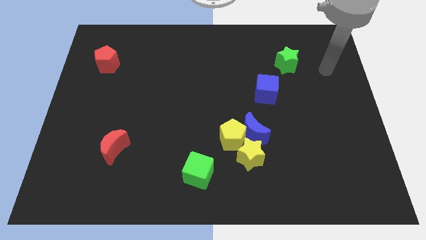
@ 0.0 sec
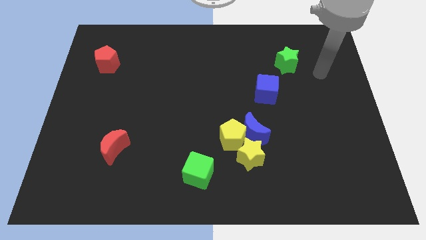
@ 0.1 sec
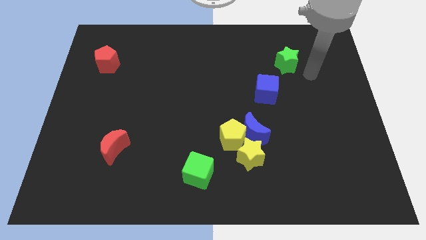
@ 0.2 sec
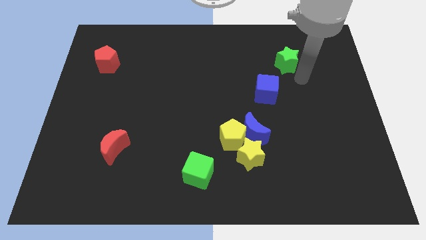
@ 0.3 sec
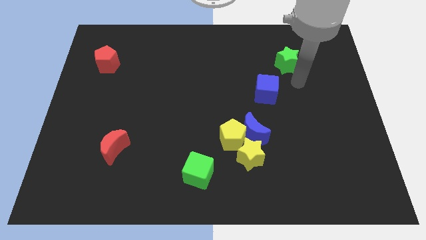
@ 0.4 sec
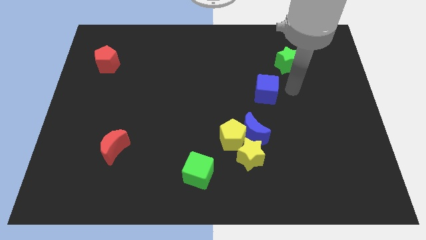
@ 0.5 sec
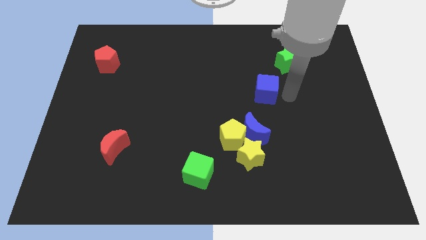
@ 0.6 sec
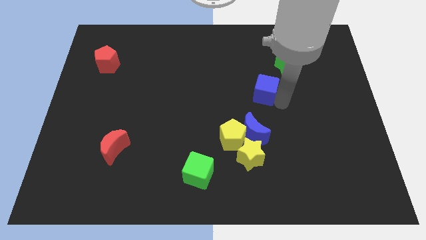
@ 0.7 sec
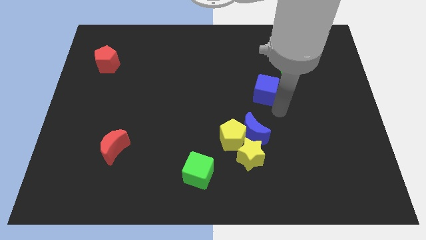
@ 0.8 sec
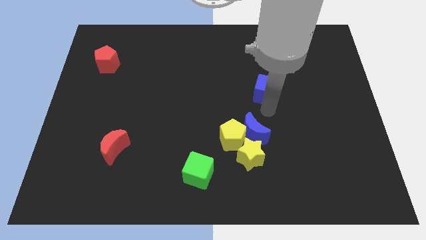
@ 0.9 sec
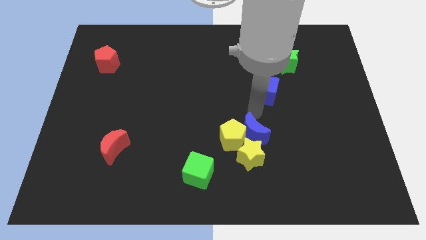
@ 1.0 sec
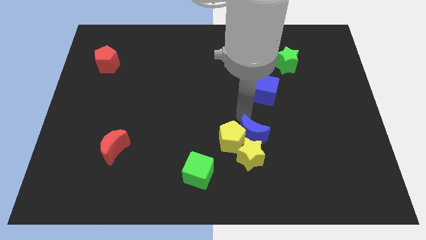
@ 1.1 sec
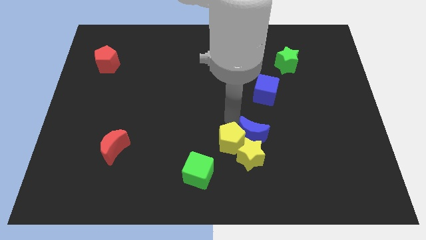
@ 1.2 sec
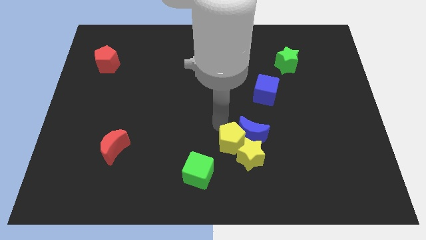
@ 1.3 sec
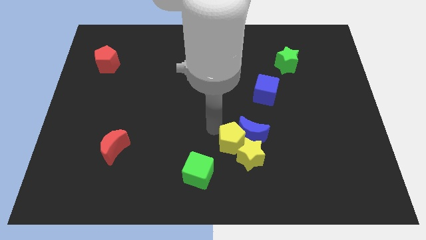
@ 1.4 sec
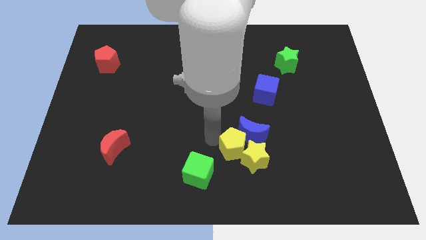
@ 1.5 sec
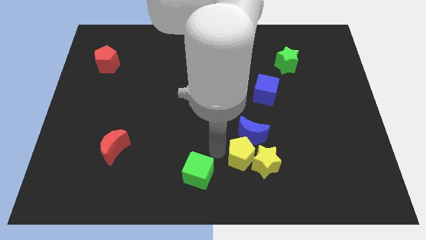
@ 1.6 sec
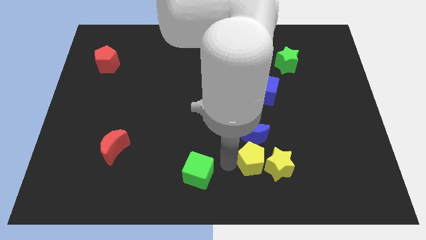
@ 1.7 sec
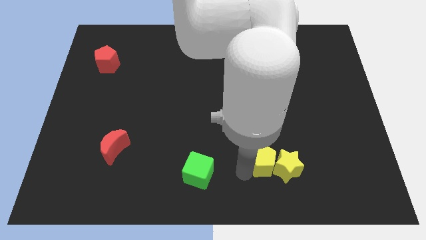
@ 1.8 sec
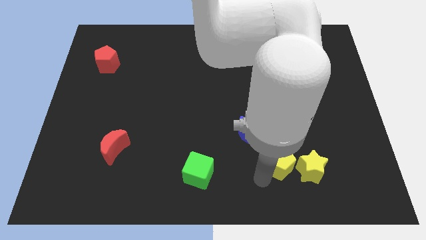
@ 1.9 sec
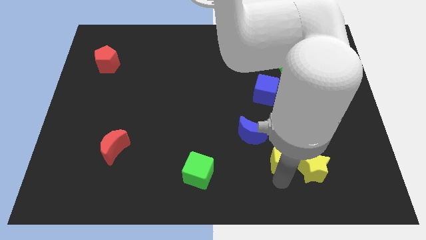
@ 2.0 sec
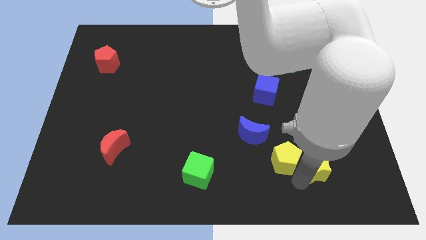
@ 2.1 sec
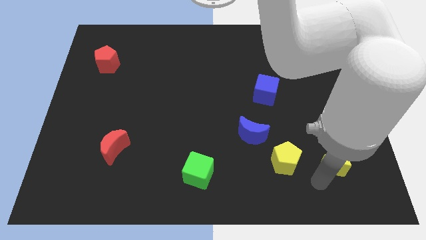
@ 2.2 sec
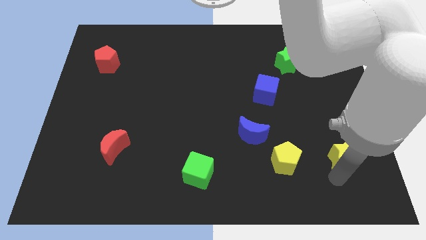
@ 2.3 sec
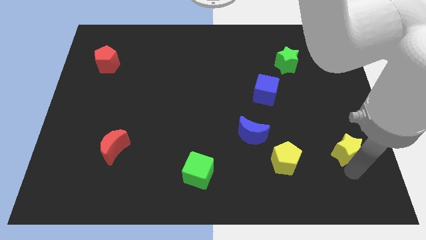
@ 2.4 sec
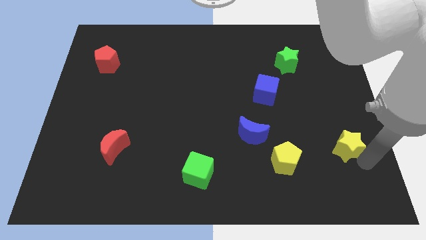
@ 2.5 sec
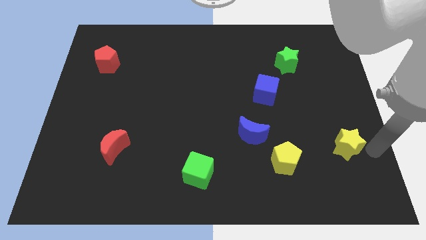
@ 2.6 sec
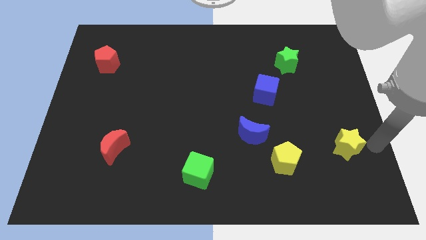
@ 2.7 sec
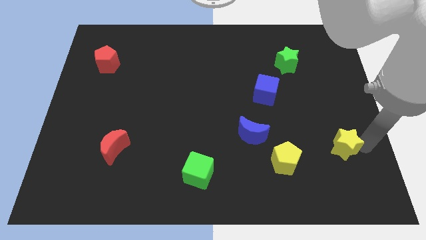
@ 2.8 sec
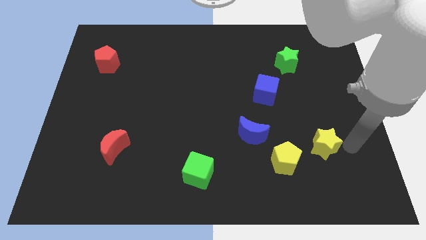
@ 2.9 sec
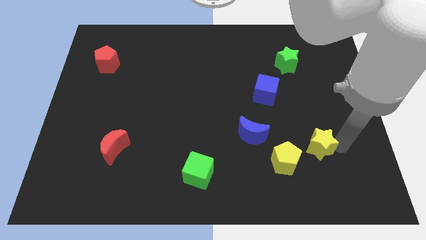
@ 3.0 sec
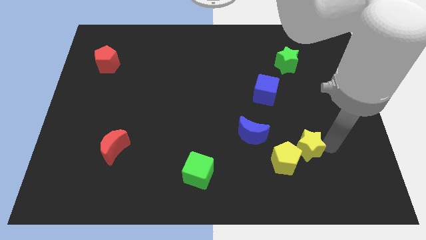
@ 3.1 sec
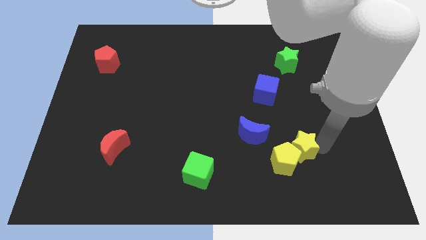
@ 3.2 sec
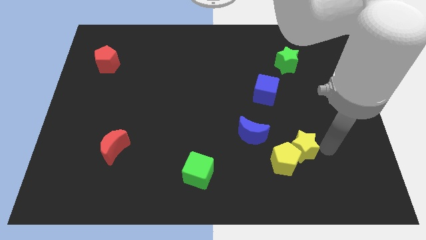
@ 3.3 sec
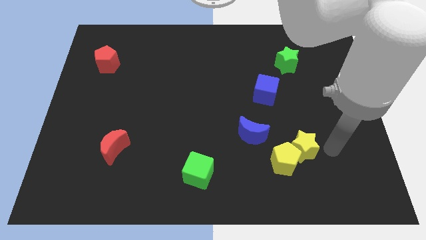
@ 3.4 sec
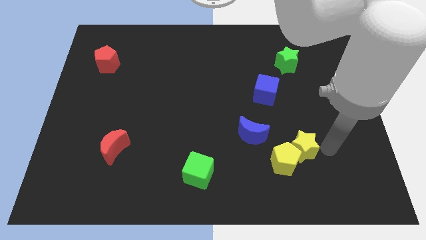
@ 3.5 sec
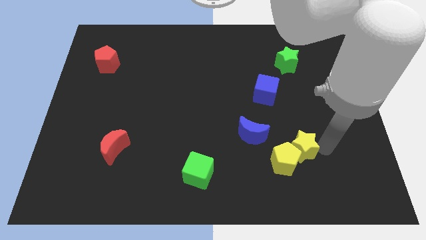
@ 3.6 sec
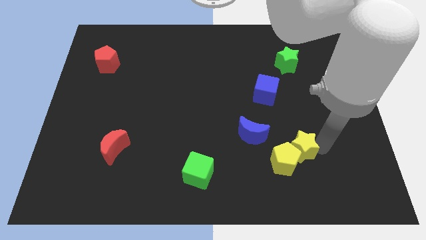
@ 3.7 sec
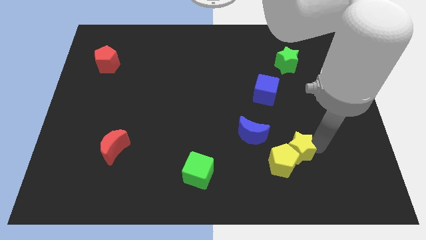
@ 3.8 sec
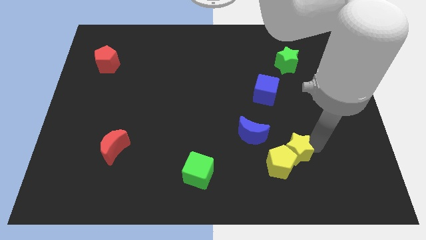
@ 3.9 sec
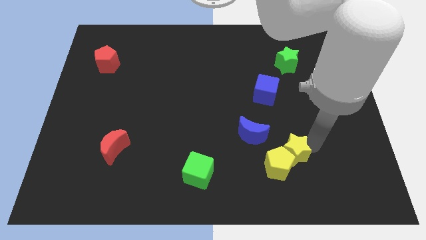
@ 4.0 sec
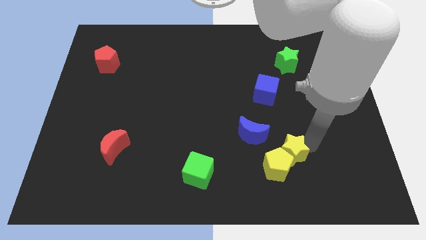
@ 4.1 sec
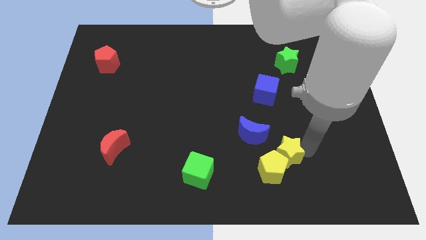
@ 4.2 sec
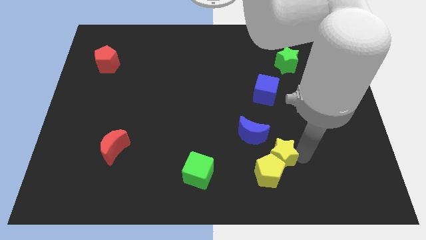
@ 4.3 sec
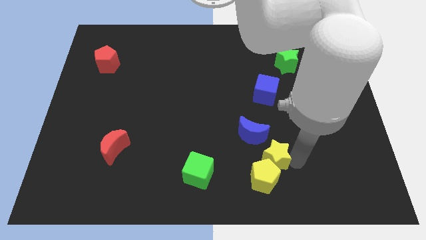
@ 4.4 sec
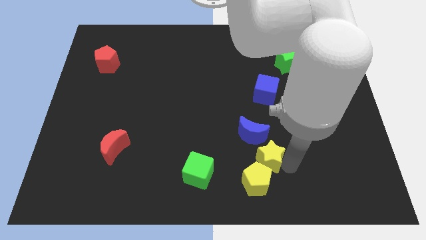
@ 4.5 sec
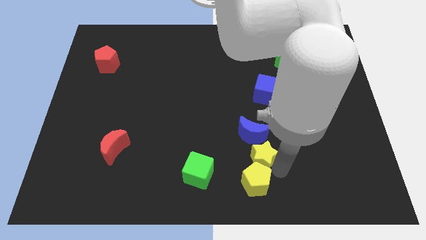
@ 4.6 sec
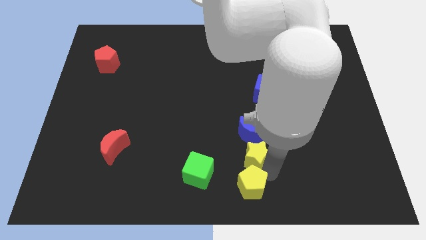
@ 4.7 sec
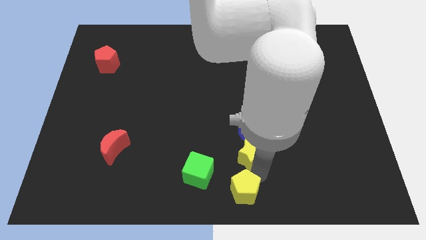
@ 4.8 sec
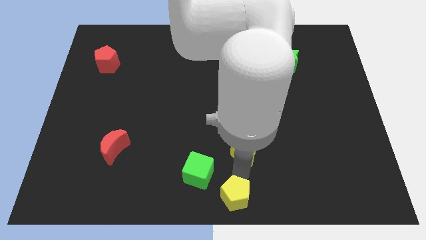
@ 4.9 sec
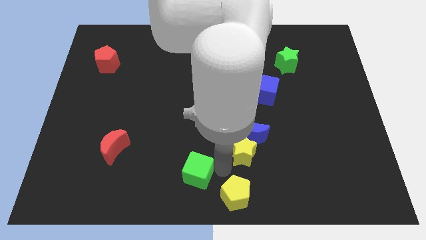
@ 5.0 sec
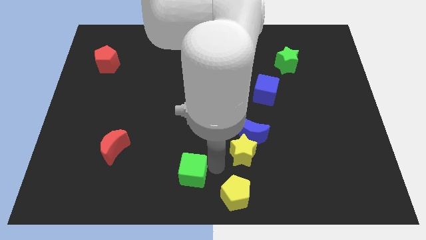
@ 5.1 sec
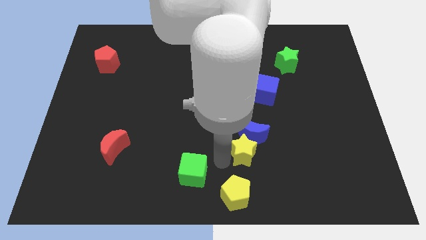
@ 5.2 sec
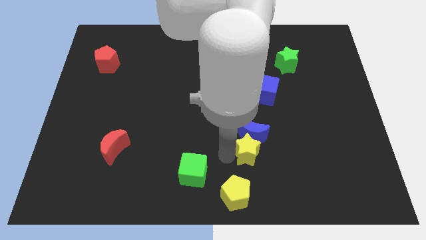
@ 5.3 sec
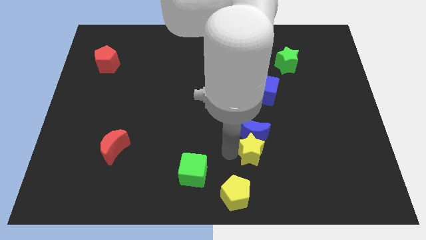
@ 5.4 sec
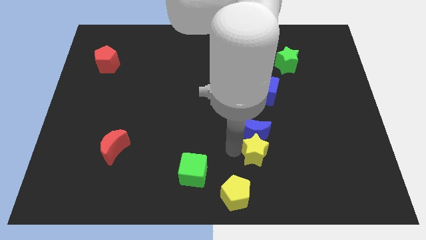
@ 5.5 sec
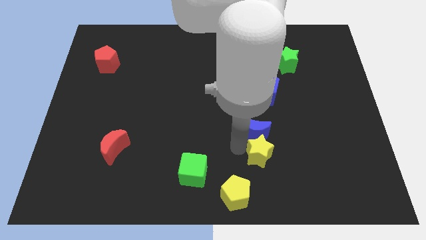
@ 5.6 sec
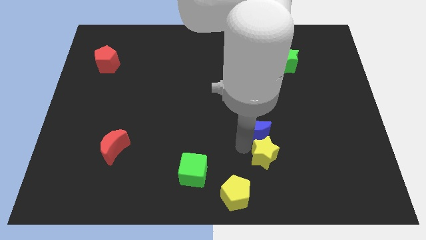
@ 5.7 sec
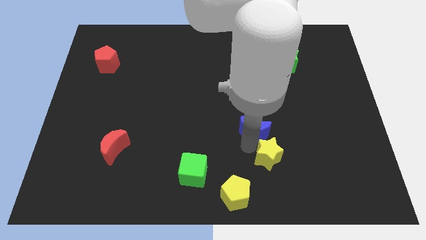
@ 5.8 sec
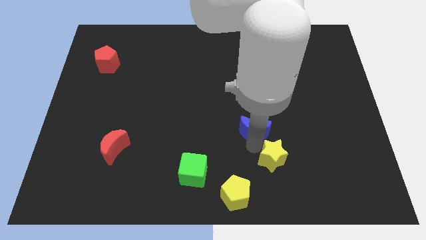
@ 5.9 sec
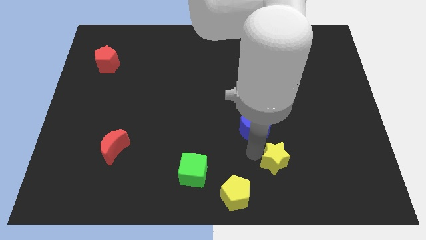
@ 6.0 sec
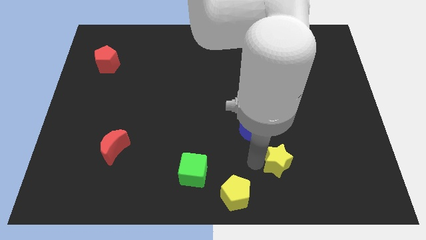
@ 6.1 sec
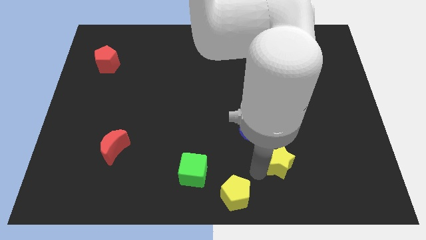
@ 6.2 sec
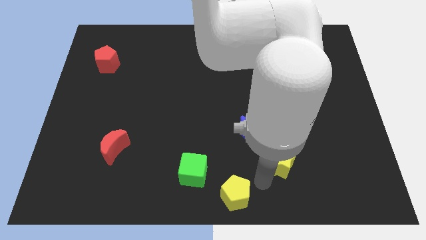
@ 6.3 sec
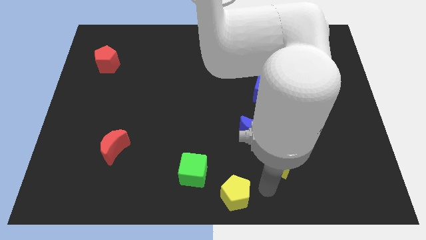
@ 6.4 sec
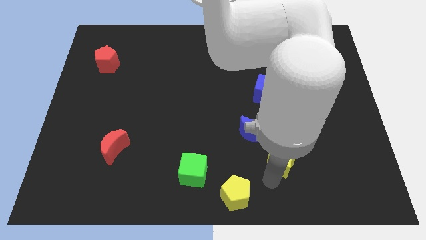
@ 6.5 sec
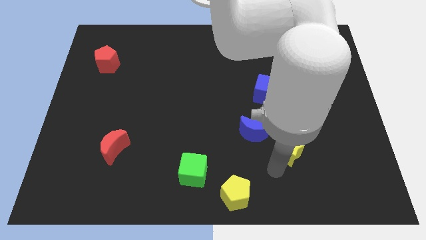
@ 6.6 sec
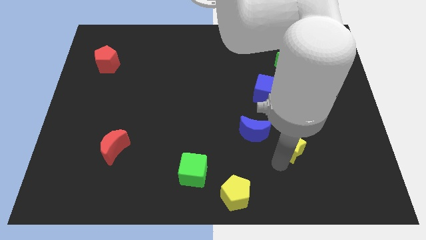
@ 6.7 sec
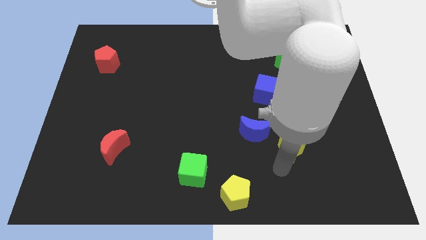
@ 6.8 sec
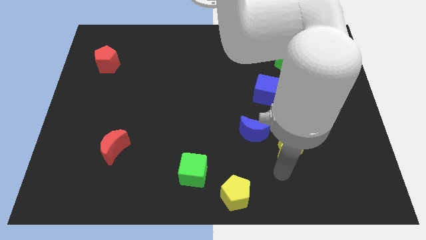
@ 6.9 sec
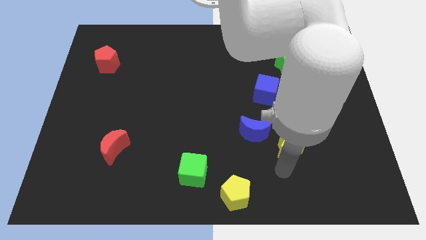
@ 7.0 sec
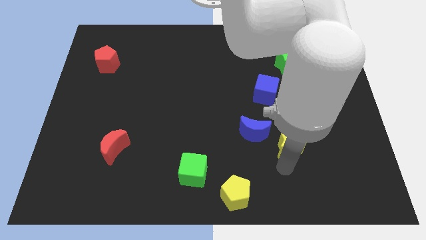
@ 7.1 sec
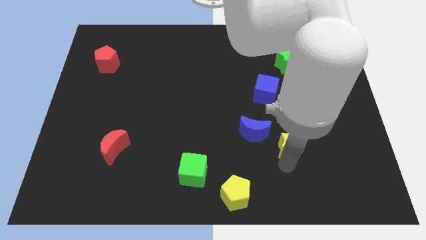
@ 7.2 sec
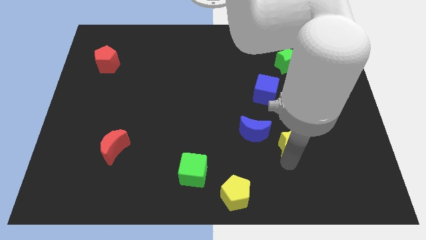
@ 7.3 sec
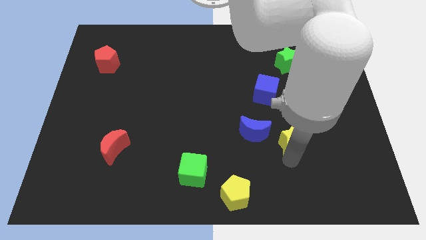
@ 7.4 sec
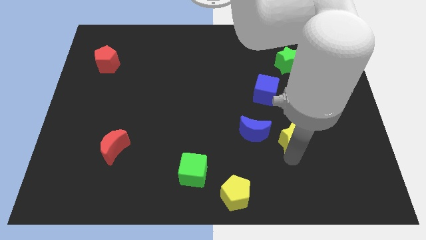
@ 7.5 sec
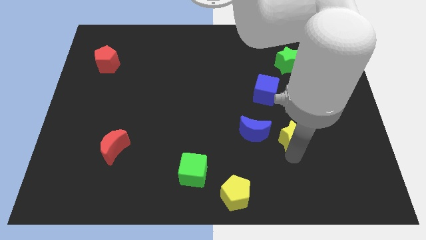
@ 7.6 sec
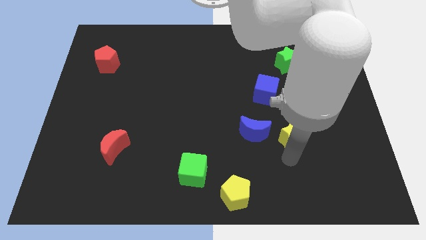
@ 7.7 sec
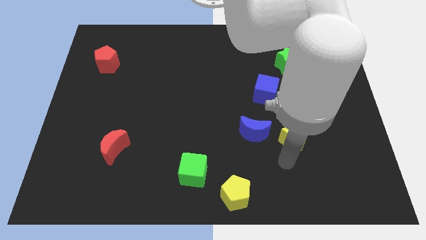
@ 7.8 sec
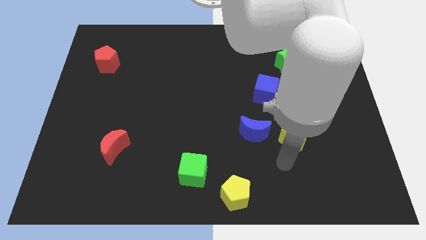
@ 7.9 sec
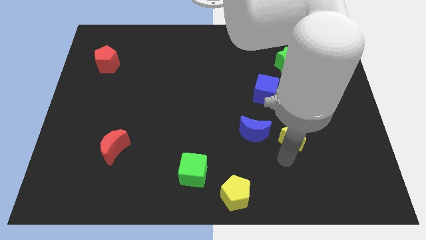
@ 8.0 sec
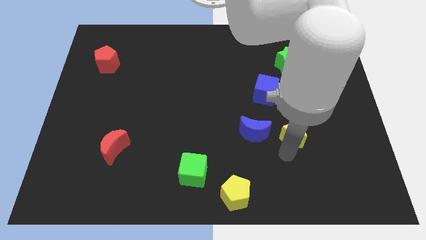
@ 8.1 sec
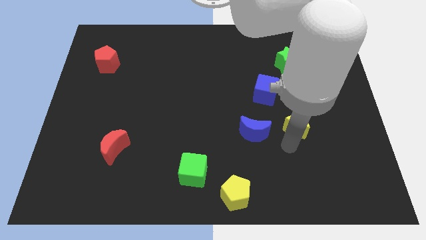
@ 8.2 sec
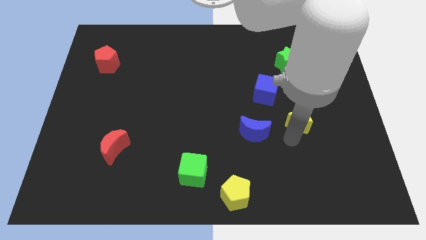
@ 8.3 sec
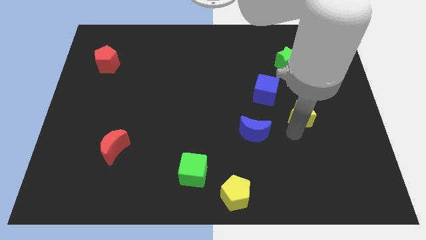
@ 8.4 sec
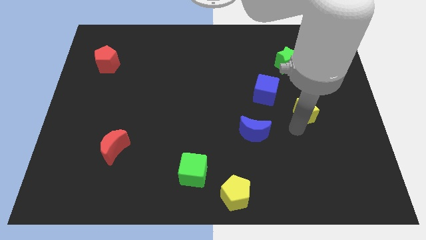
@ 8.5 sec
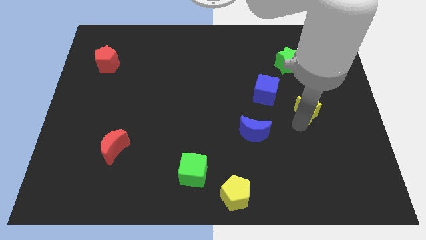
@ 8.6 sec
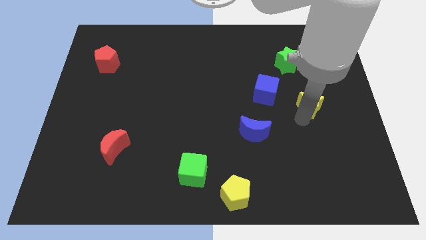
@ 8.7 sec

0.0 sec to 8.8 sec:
move the yellow star right of the blue cube
